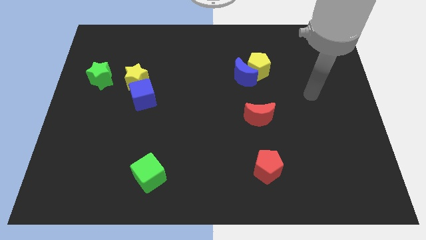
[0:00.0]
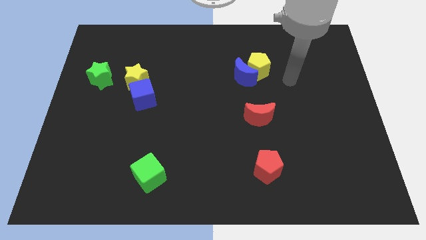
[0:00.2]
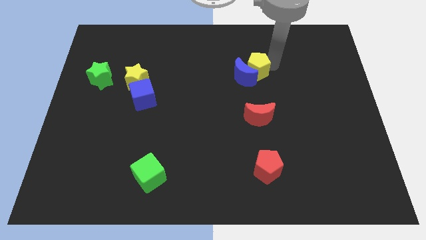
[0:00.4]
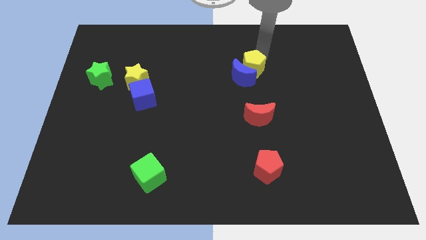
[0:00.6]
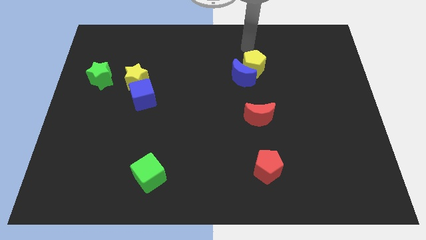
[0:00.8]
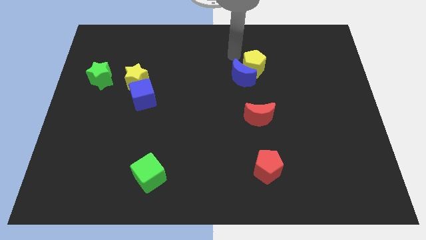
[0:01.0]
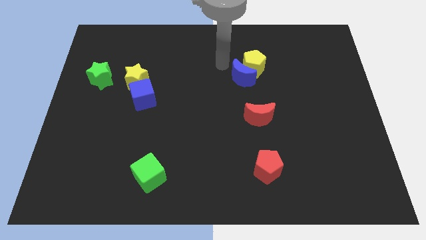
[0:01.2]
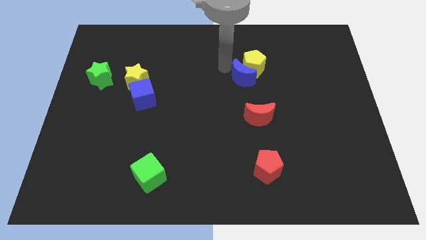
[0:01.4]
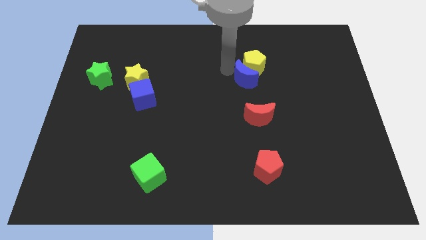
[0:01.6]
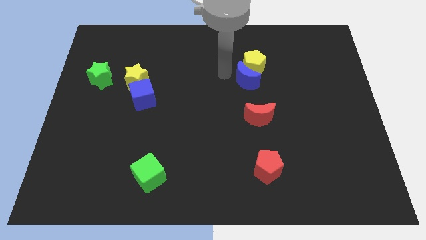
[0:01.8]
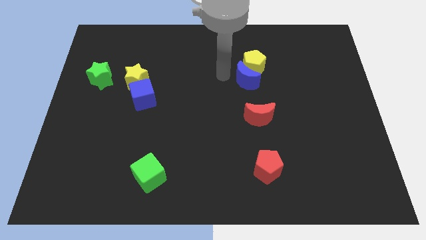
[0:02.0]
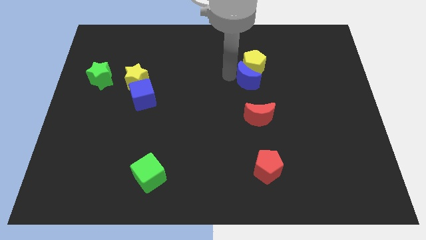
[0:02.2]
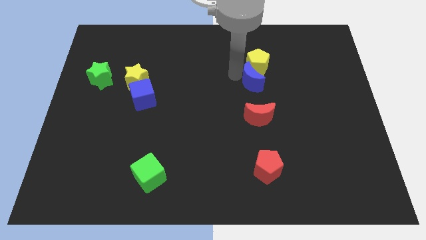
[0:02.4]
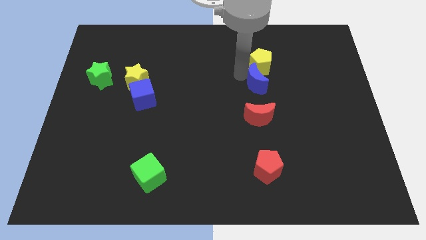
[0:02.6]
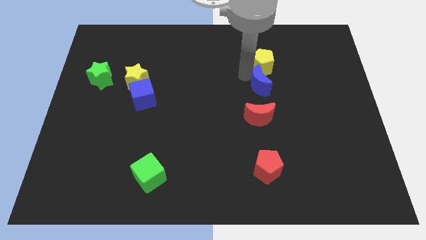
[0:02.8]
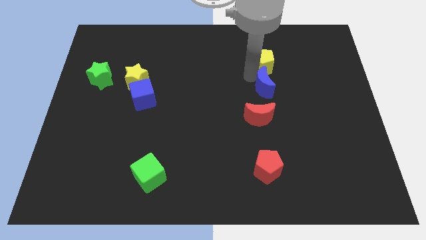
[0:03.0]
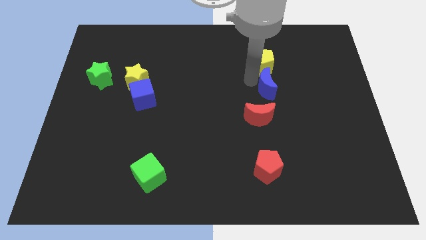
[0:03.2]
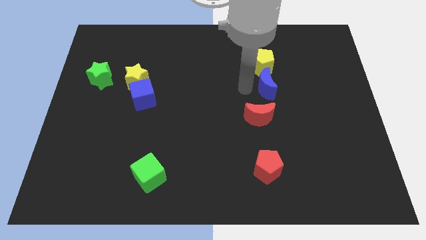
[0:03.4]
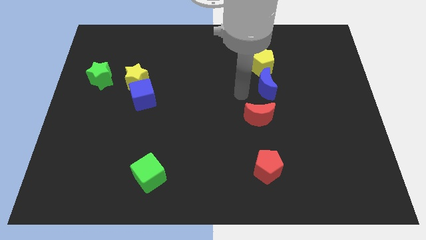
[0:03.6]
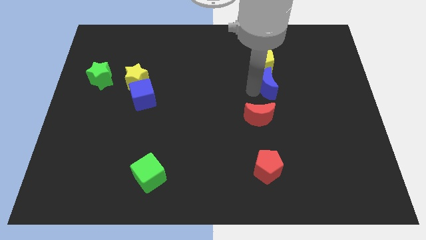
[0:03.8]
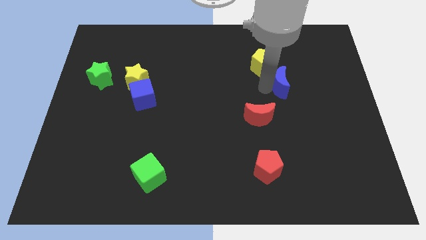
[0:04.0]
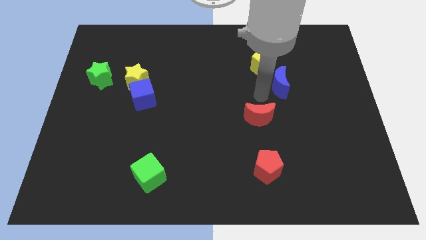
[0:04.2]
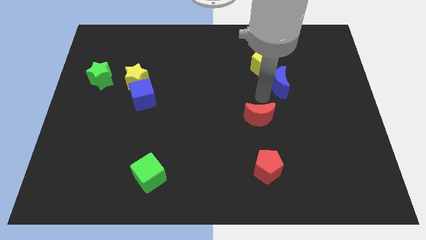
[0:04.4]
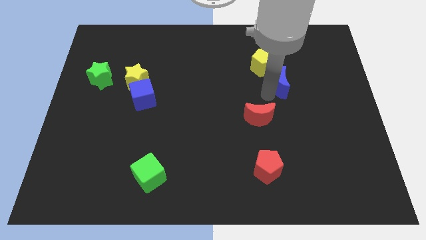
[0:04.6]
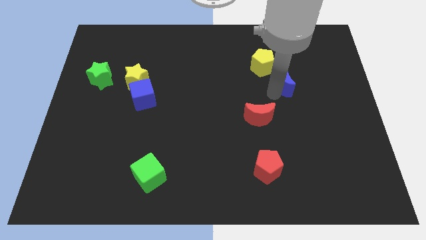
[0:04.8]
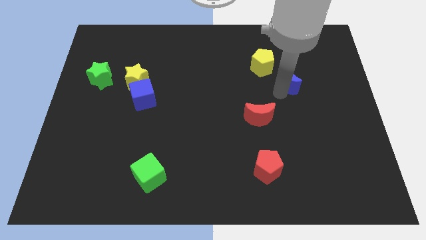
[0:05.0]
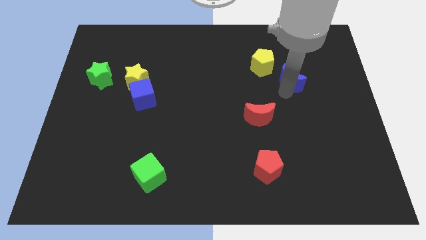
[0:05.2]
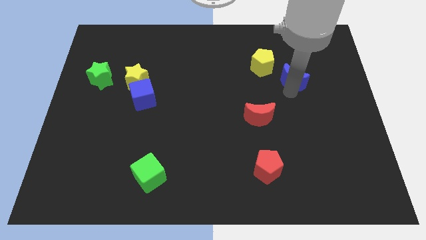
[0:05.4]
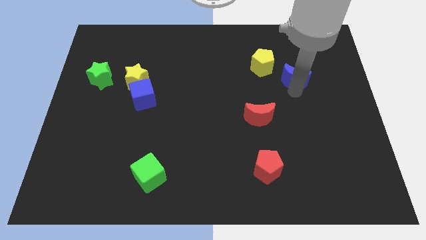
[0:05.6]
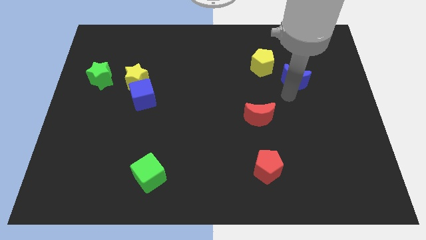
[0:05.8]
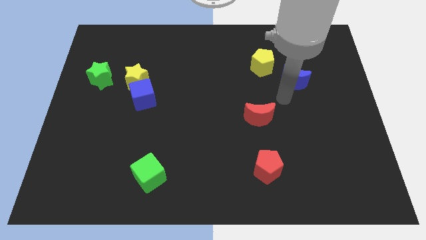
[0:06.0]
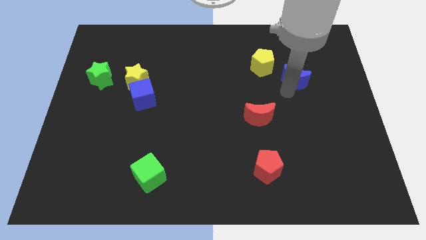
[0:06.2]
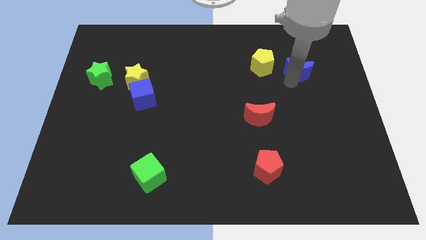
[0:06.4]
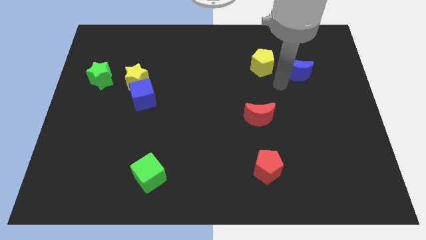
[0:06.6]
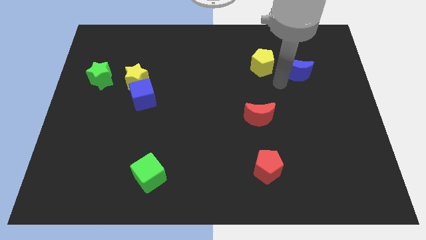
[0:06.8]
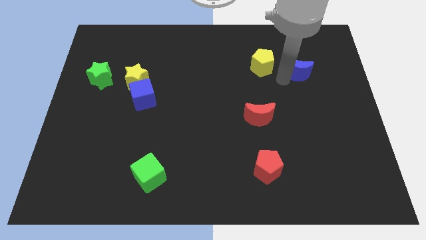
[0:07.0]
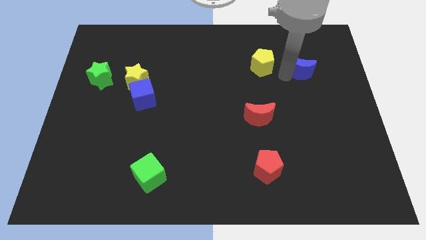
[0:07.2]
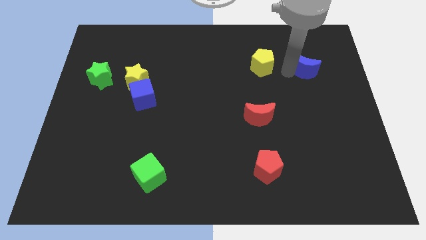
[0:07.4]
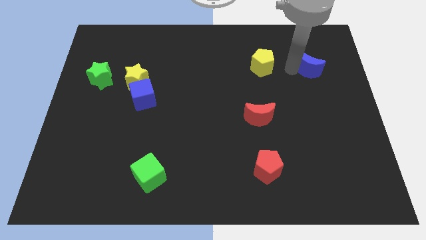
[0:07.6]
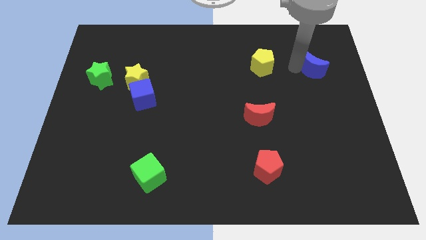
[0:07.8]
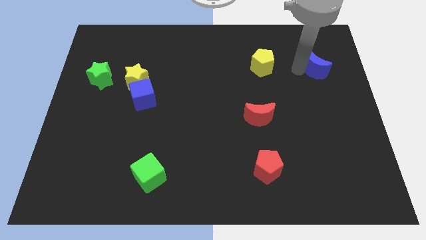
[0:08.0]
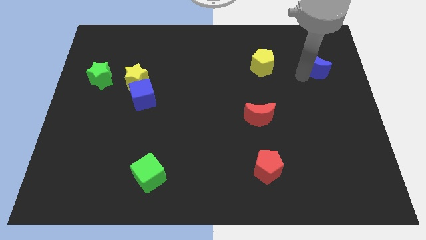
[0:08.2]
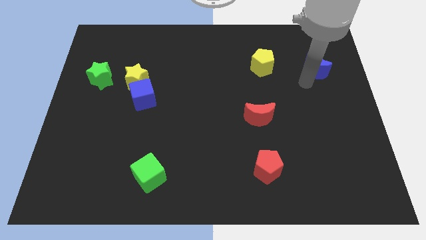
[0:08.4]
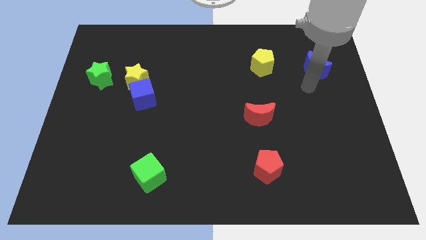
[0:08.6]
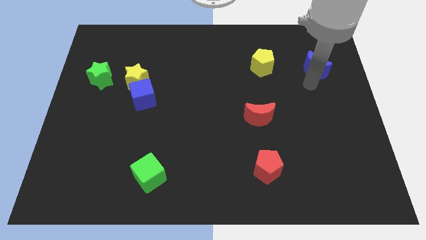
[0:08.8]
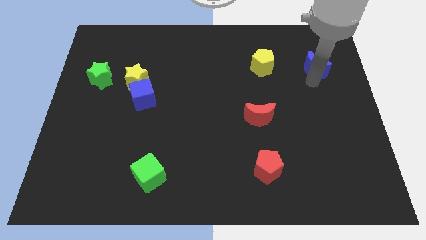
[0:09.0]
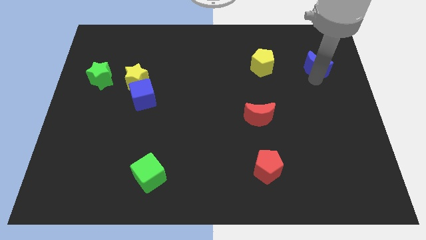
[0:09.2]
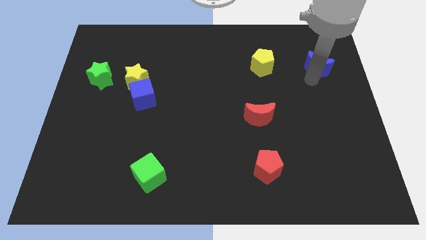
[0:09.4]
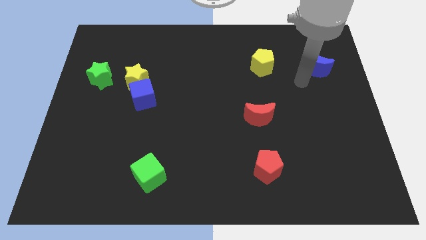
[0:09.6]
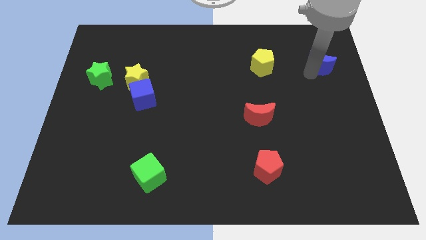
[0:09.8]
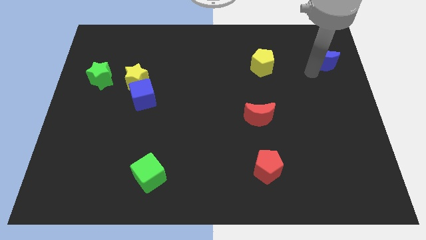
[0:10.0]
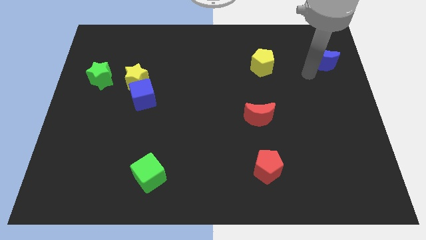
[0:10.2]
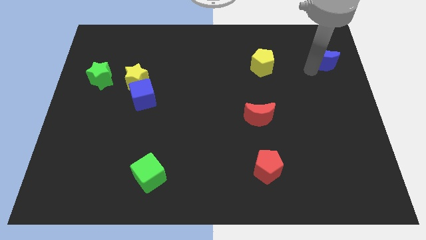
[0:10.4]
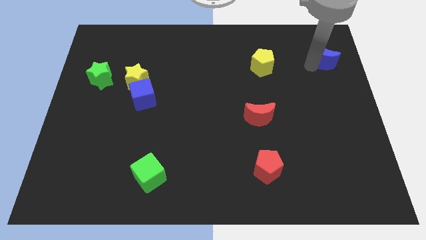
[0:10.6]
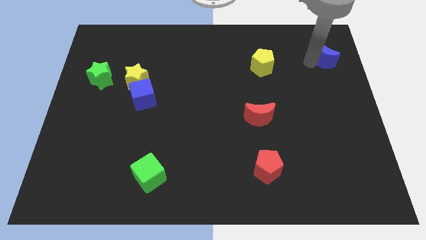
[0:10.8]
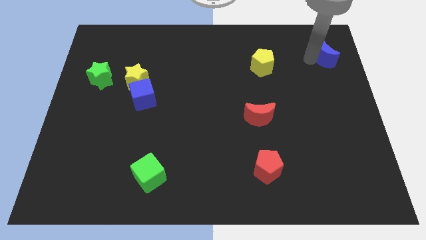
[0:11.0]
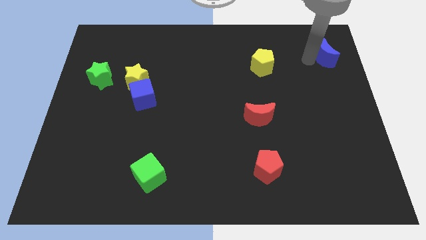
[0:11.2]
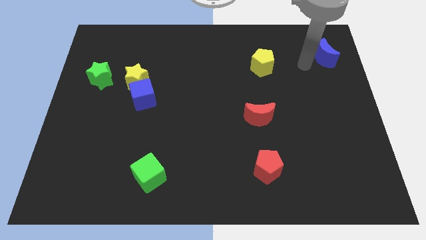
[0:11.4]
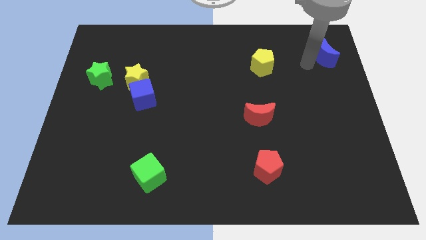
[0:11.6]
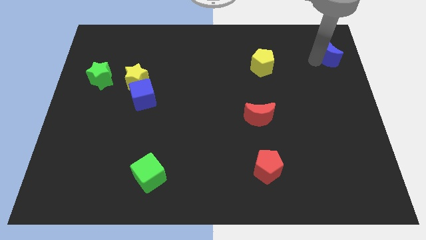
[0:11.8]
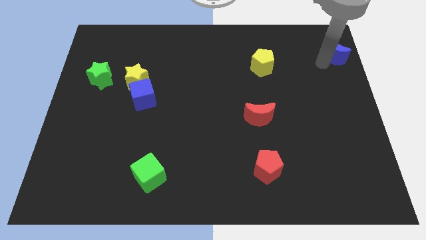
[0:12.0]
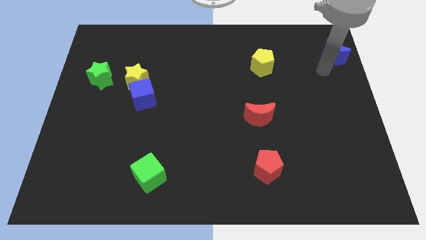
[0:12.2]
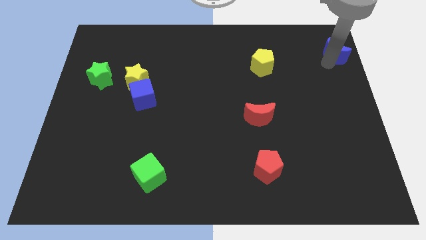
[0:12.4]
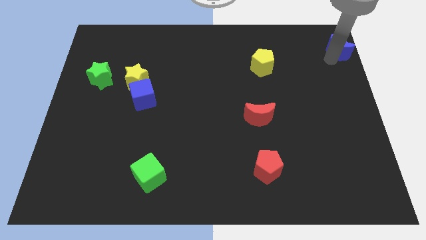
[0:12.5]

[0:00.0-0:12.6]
push the blue moon to the top right of the board

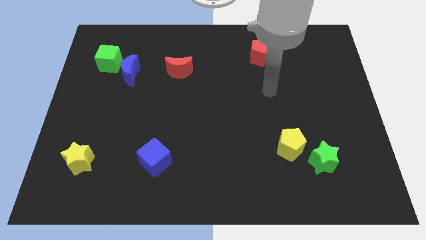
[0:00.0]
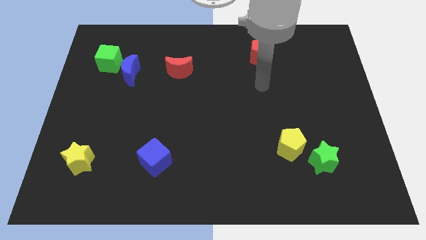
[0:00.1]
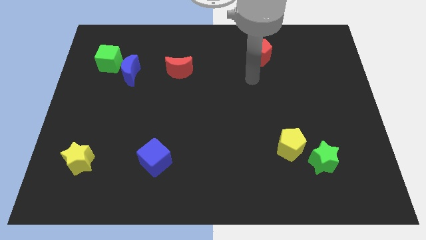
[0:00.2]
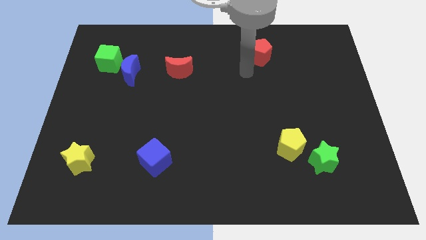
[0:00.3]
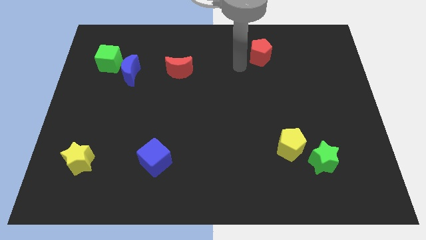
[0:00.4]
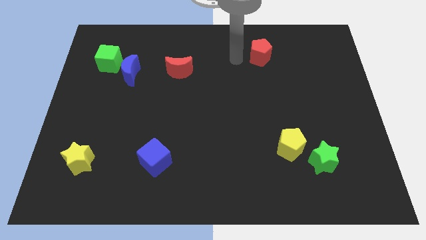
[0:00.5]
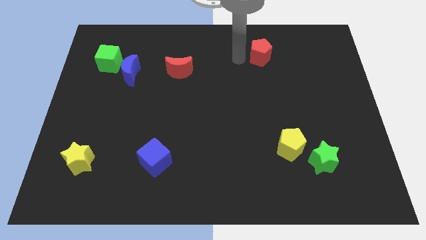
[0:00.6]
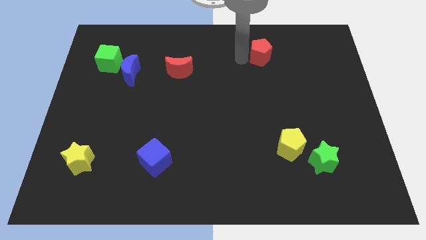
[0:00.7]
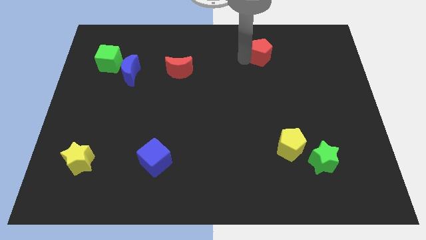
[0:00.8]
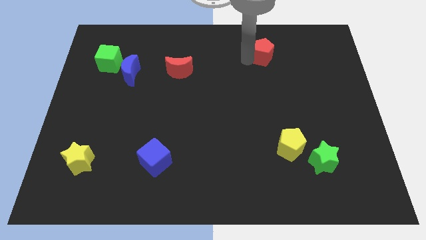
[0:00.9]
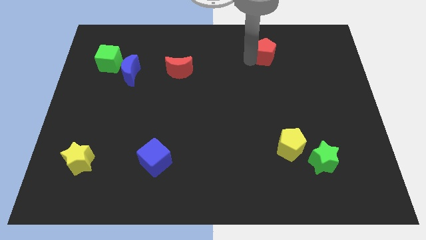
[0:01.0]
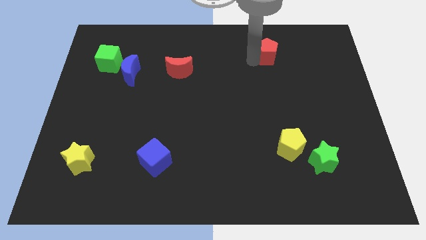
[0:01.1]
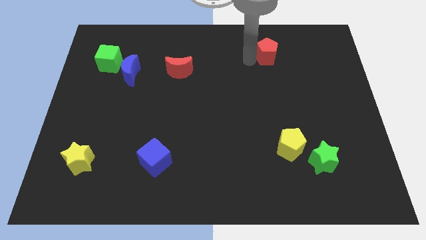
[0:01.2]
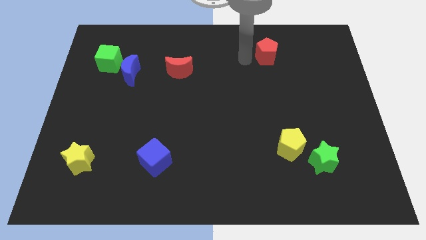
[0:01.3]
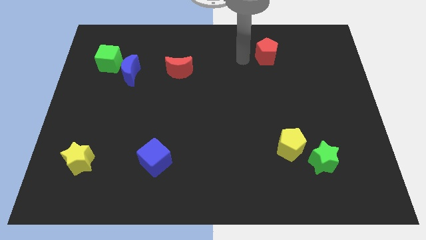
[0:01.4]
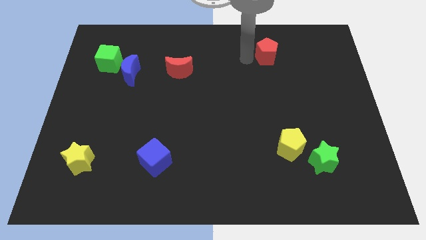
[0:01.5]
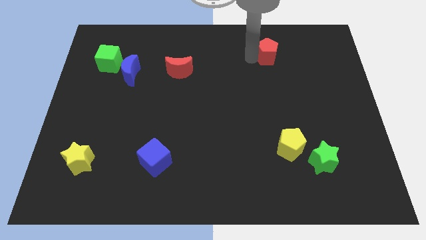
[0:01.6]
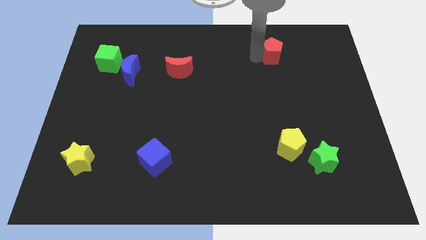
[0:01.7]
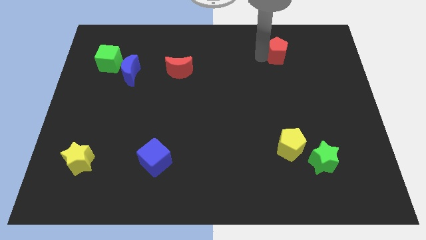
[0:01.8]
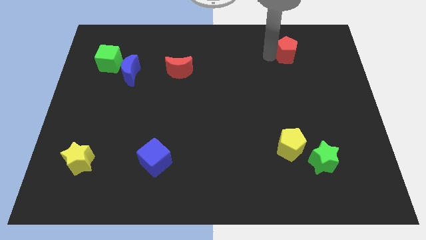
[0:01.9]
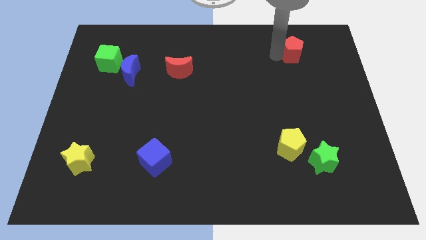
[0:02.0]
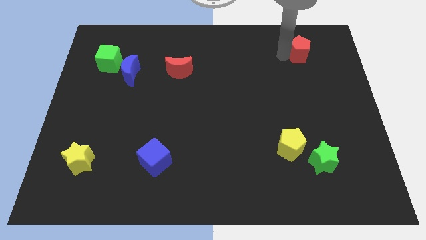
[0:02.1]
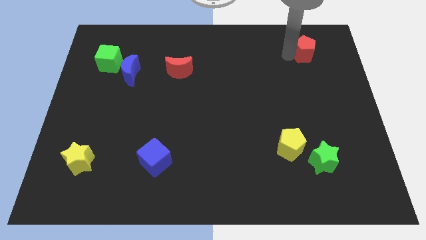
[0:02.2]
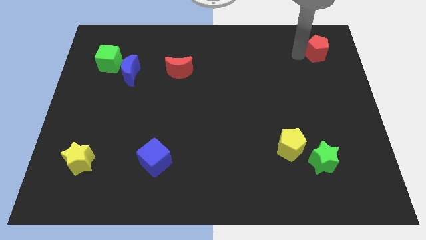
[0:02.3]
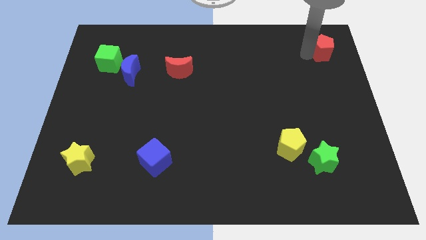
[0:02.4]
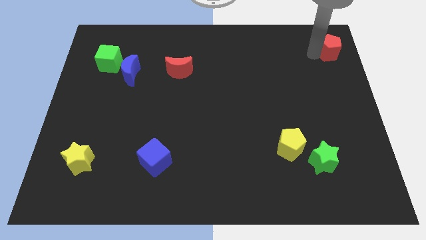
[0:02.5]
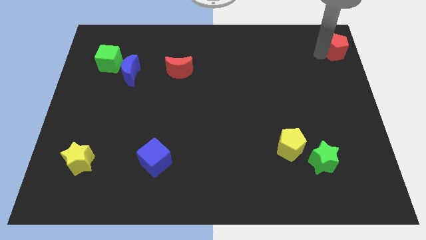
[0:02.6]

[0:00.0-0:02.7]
push the red pentagon to the top right corner
